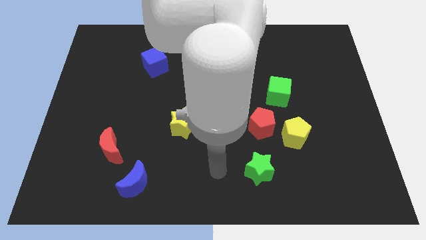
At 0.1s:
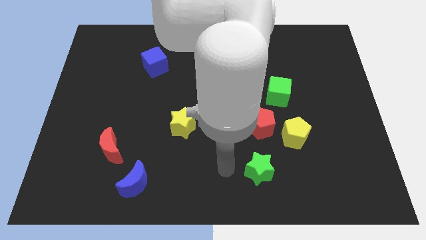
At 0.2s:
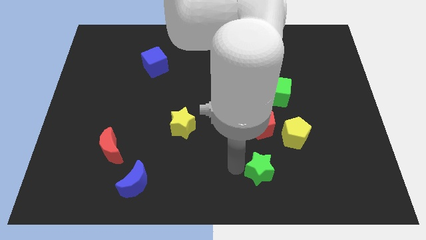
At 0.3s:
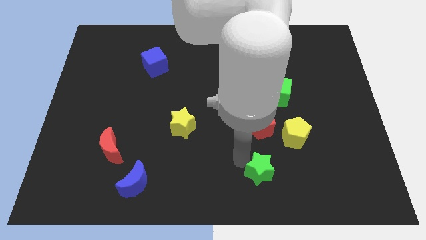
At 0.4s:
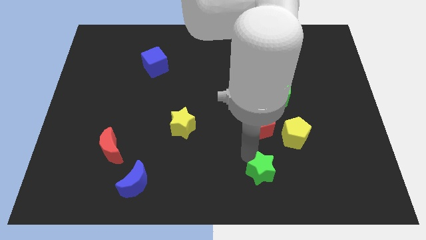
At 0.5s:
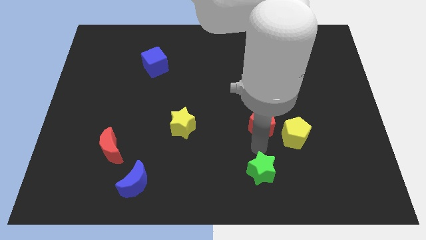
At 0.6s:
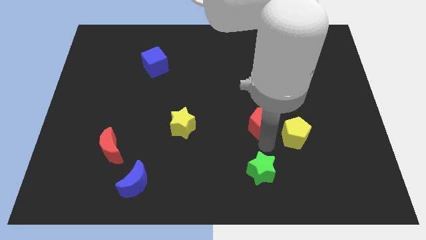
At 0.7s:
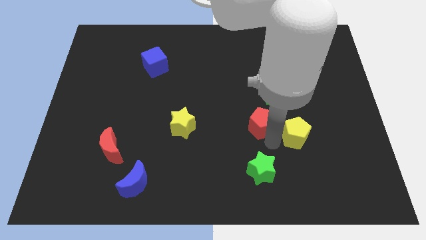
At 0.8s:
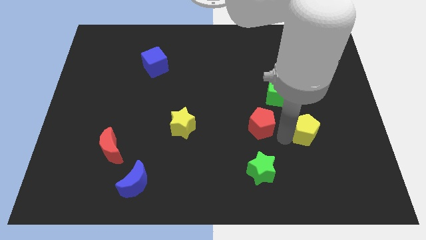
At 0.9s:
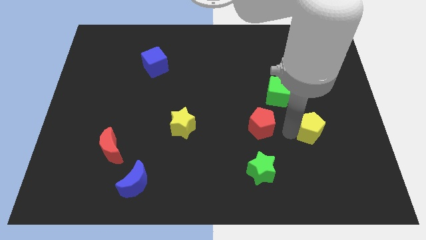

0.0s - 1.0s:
separate the red pentagon from the yellow pentagon

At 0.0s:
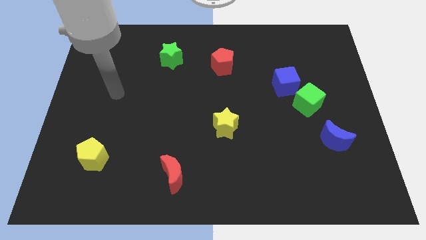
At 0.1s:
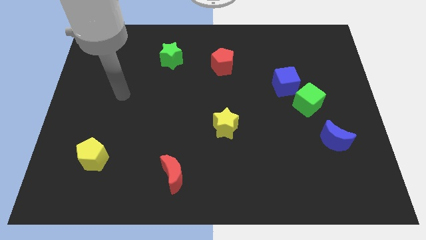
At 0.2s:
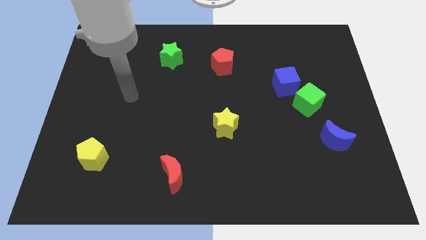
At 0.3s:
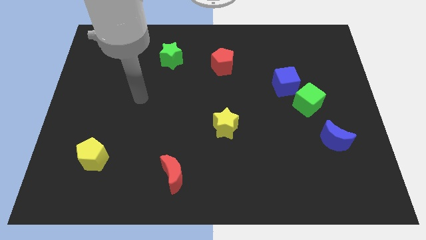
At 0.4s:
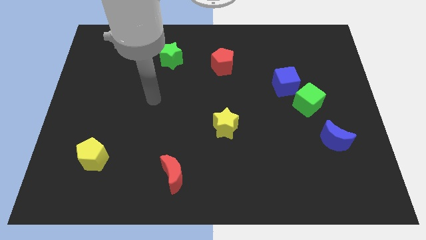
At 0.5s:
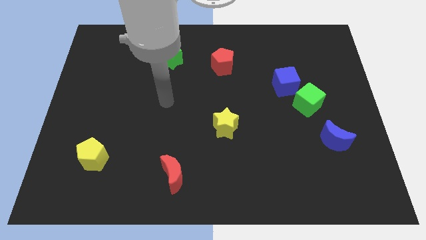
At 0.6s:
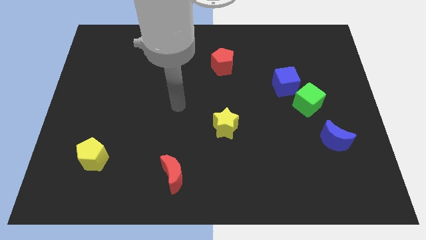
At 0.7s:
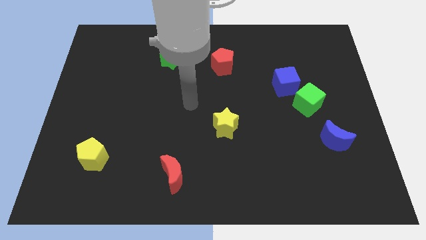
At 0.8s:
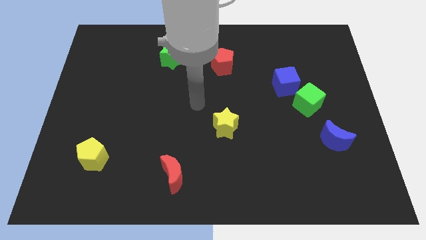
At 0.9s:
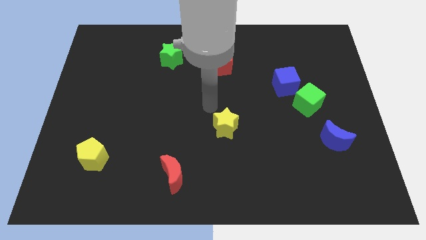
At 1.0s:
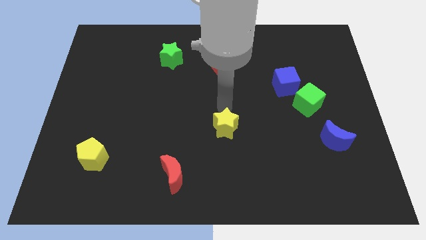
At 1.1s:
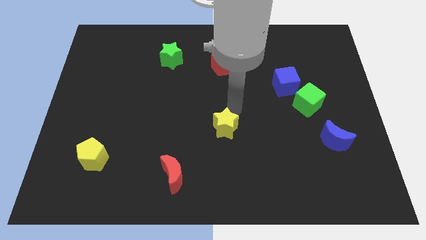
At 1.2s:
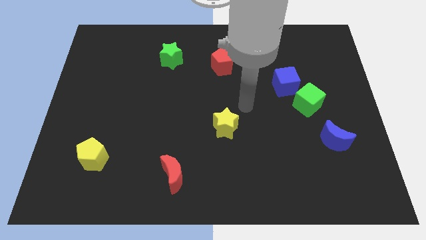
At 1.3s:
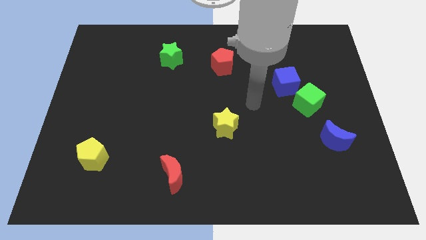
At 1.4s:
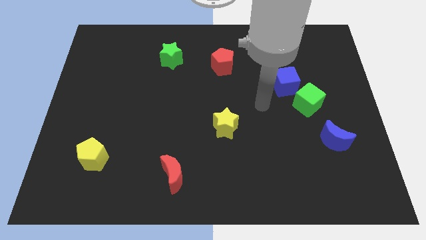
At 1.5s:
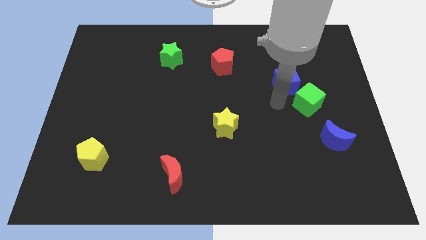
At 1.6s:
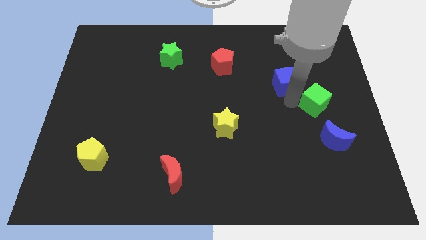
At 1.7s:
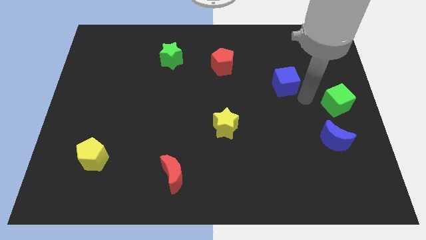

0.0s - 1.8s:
move the blue cube away from the green cube

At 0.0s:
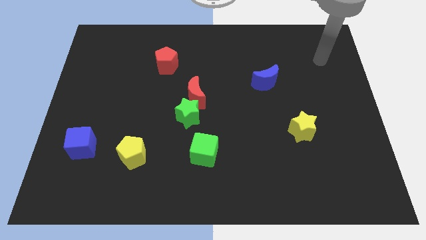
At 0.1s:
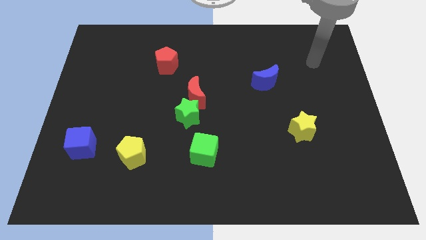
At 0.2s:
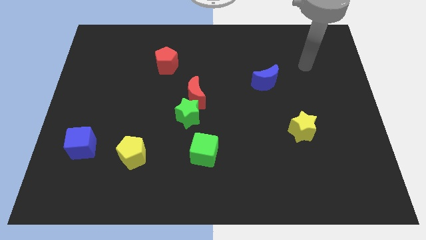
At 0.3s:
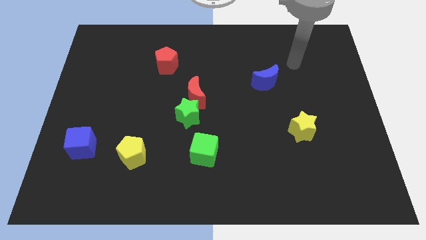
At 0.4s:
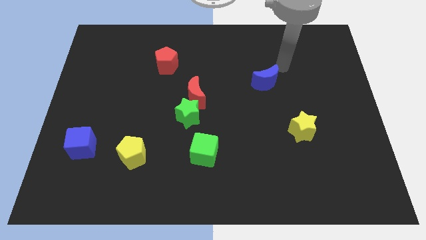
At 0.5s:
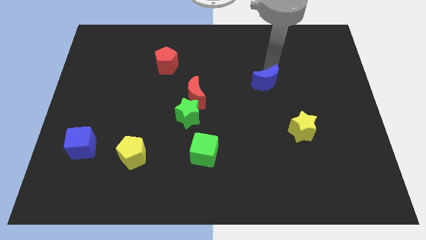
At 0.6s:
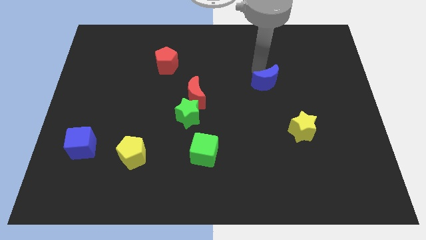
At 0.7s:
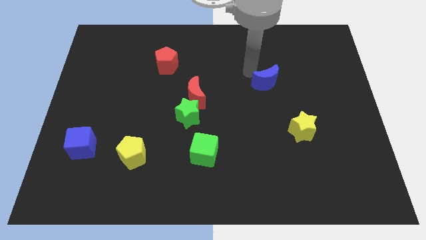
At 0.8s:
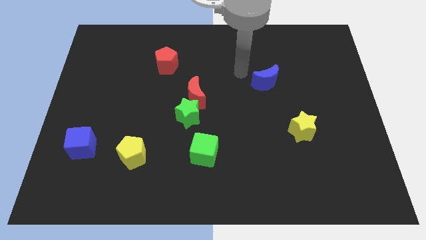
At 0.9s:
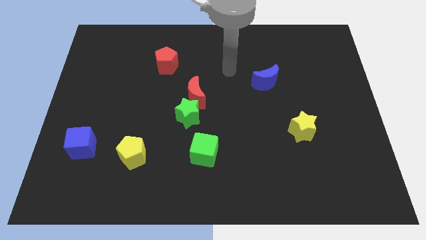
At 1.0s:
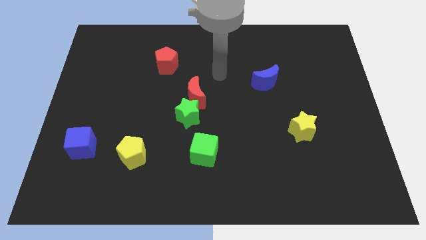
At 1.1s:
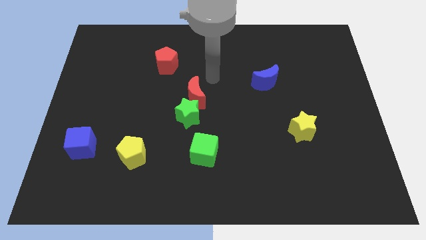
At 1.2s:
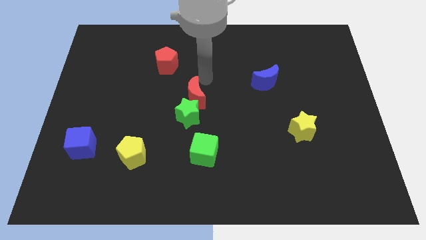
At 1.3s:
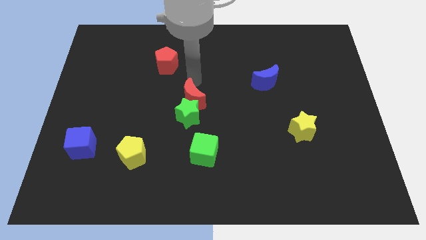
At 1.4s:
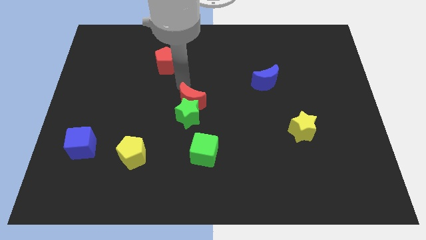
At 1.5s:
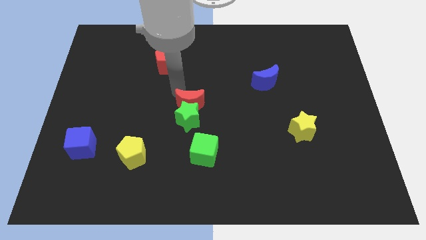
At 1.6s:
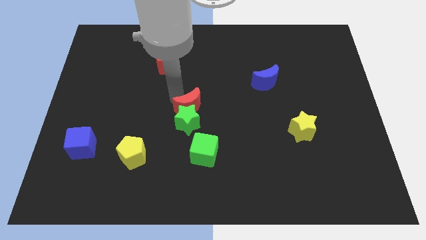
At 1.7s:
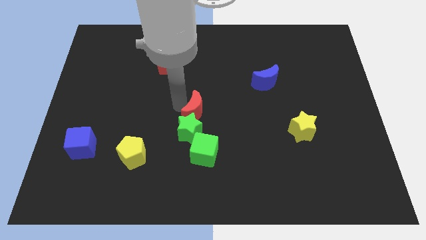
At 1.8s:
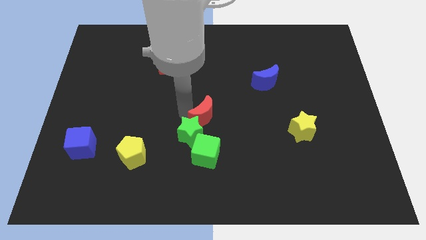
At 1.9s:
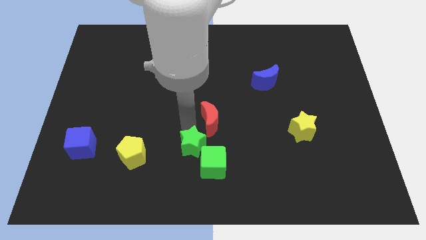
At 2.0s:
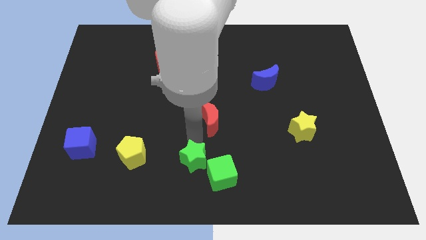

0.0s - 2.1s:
pull the red moon apart from the green star

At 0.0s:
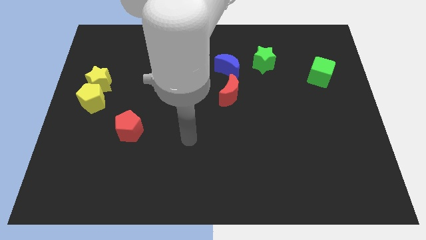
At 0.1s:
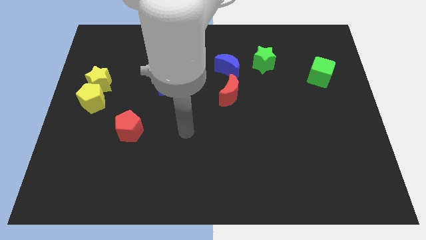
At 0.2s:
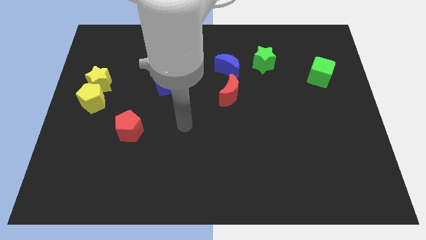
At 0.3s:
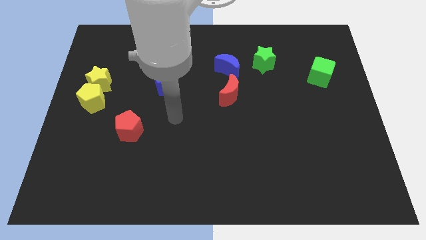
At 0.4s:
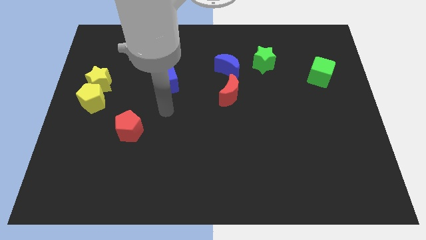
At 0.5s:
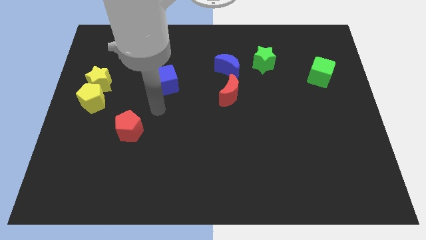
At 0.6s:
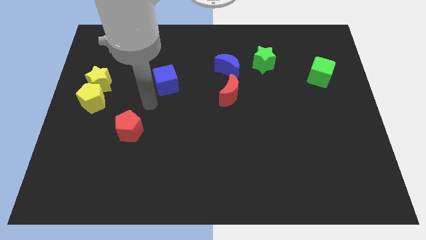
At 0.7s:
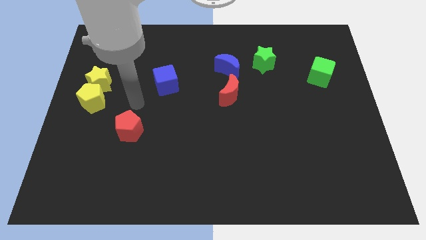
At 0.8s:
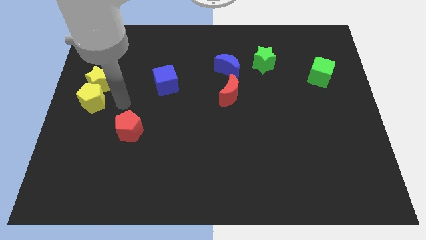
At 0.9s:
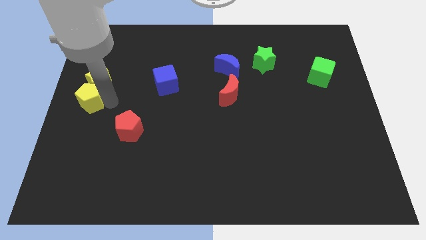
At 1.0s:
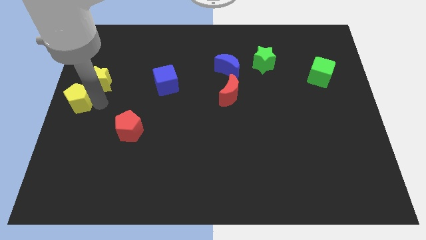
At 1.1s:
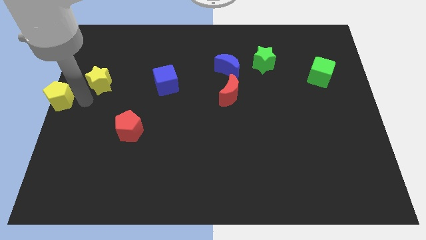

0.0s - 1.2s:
separate the yellow star from the yellow pentagon

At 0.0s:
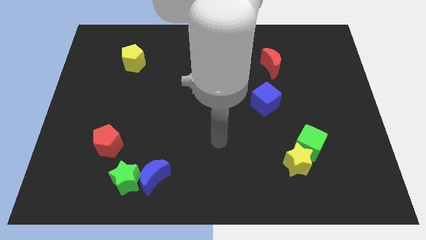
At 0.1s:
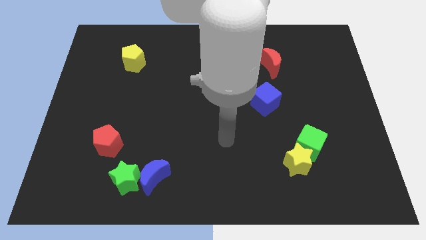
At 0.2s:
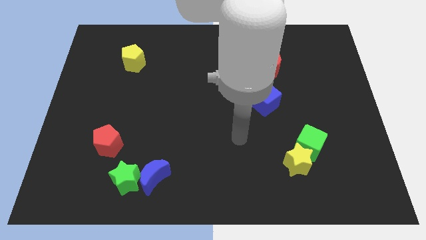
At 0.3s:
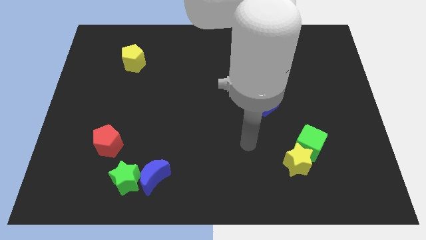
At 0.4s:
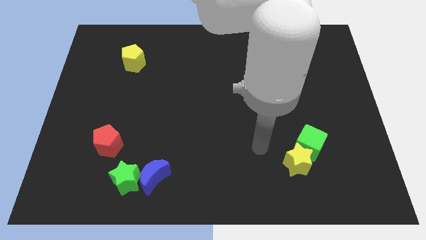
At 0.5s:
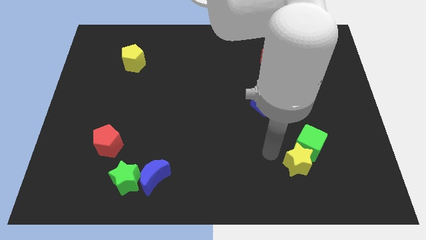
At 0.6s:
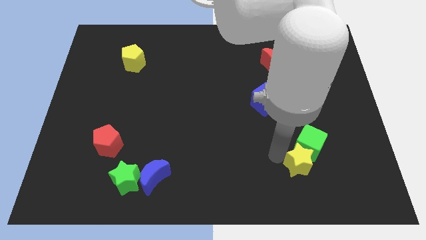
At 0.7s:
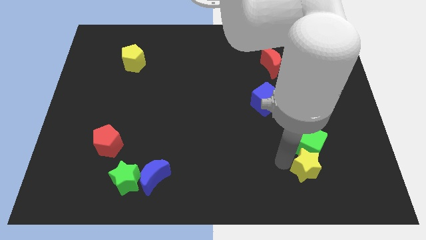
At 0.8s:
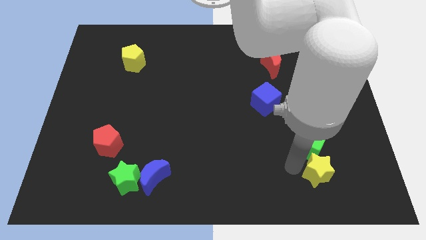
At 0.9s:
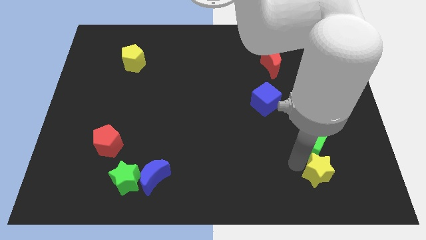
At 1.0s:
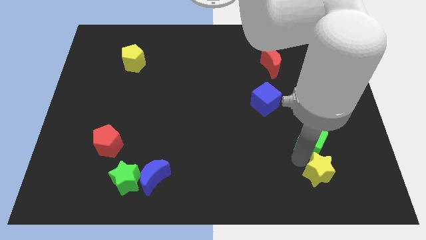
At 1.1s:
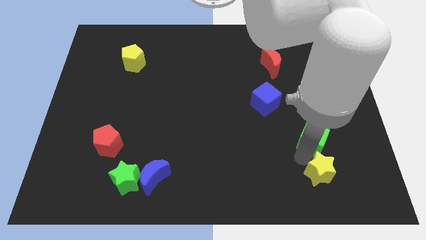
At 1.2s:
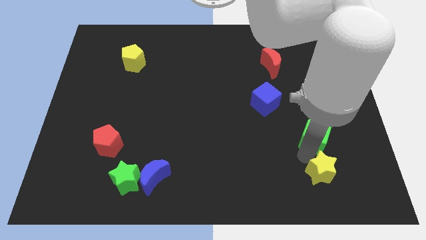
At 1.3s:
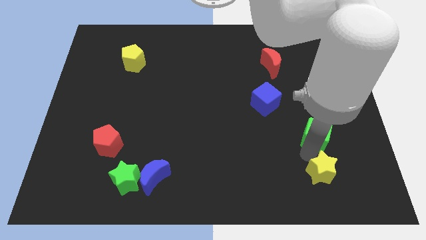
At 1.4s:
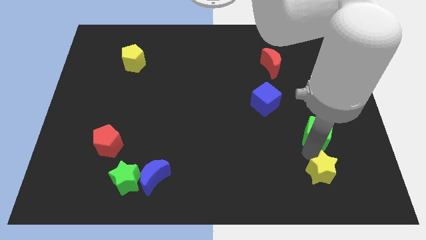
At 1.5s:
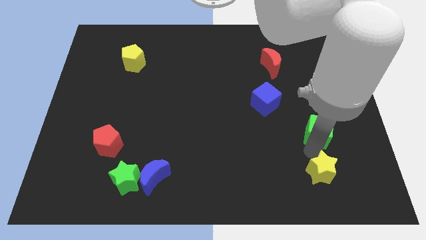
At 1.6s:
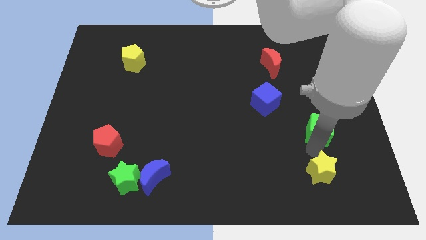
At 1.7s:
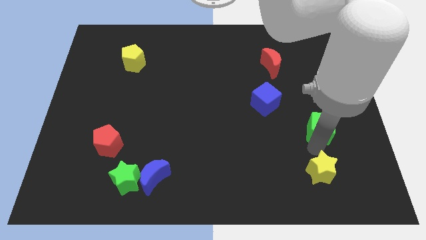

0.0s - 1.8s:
pull the green cube apart from the yellow star

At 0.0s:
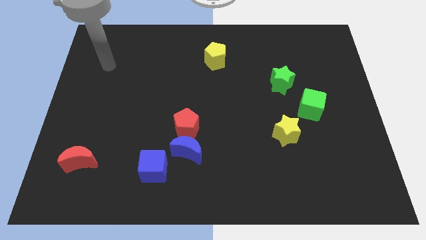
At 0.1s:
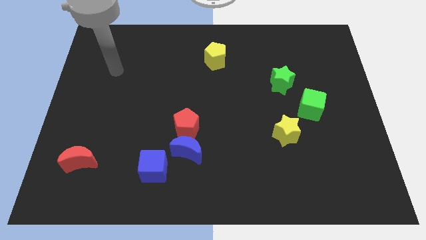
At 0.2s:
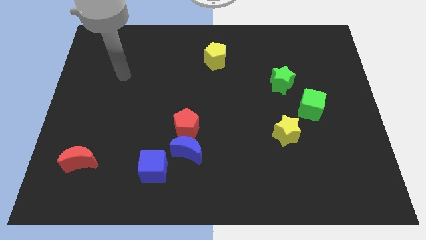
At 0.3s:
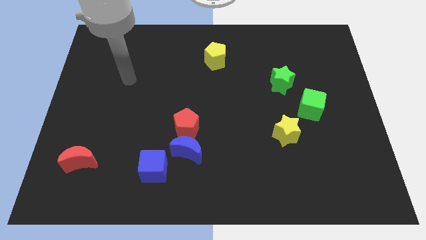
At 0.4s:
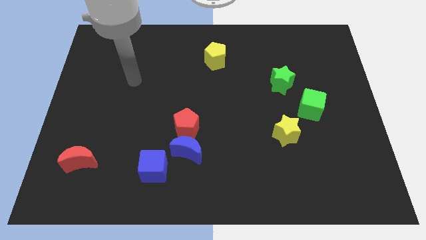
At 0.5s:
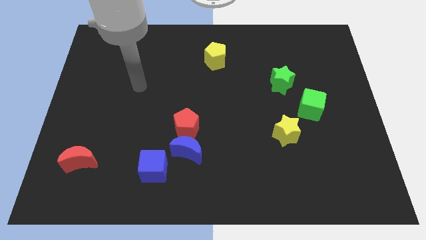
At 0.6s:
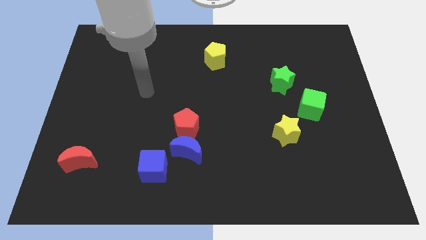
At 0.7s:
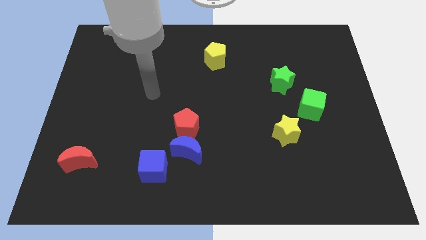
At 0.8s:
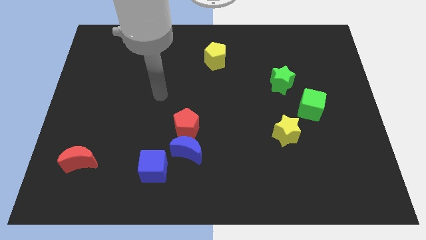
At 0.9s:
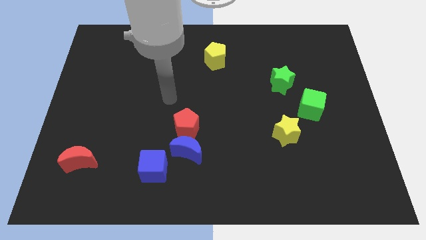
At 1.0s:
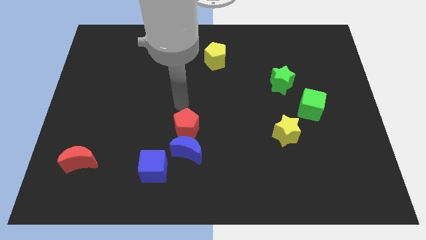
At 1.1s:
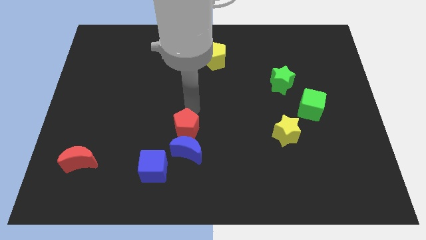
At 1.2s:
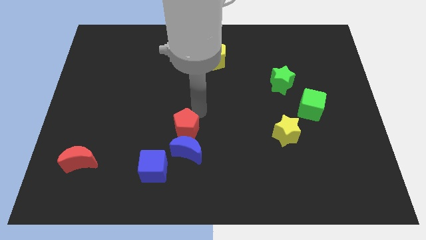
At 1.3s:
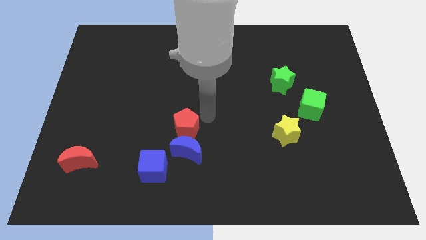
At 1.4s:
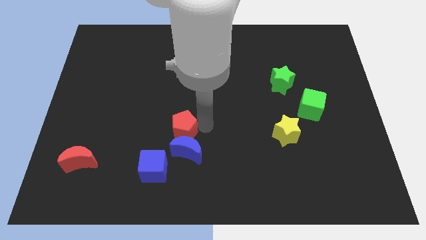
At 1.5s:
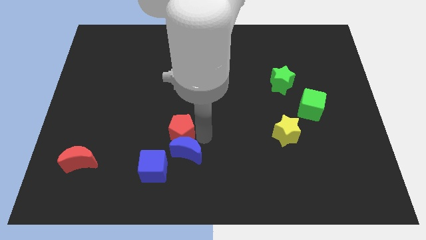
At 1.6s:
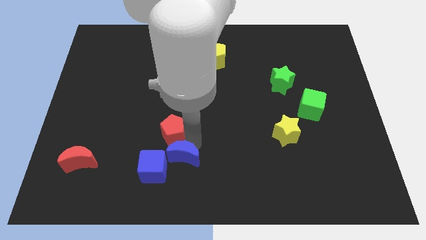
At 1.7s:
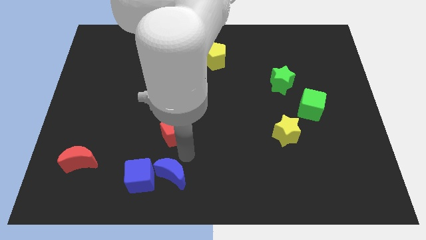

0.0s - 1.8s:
pull the red pentagon apart from the blue moon
